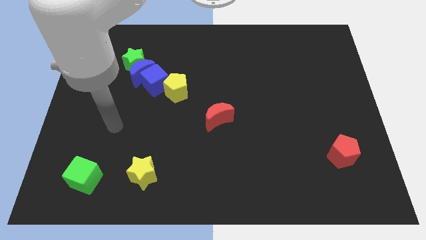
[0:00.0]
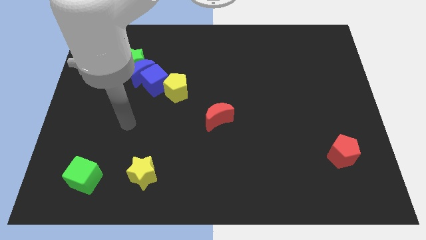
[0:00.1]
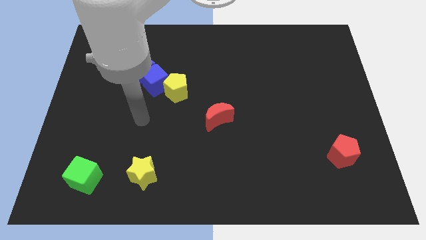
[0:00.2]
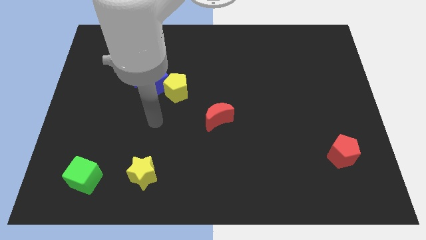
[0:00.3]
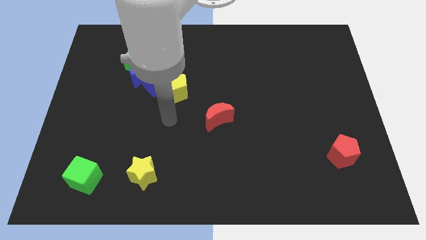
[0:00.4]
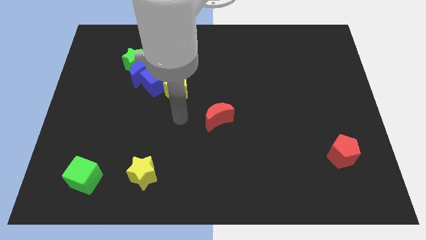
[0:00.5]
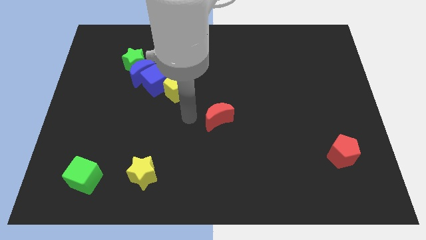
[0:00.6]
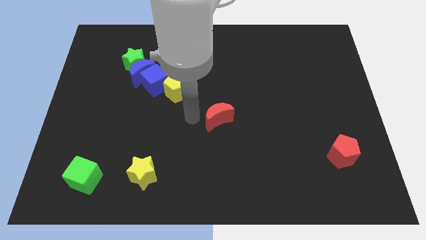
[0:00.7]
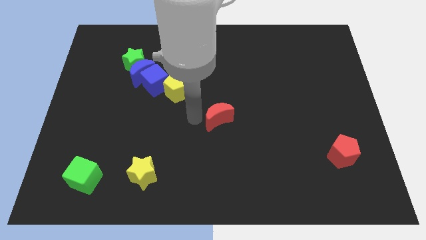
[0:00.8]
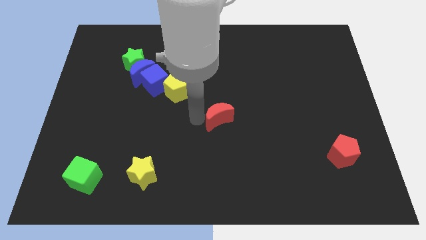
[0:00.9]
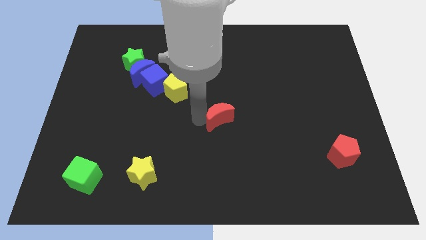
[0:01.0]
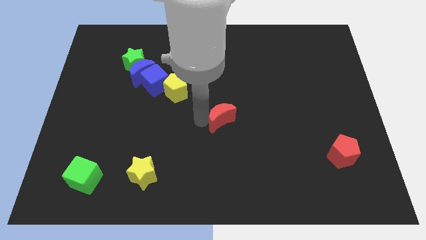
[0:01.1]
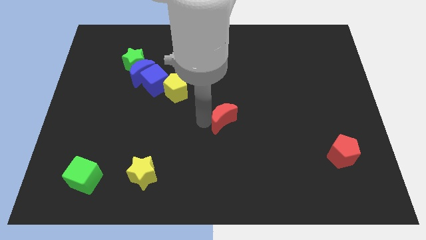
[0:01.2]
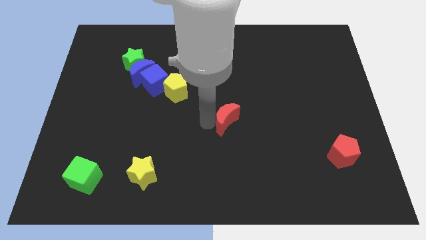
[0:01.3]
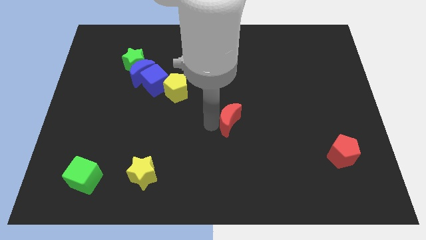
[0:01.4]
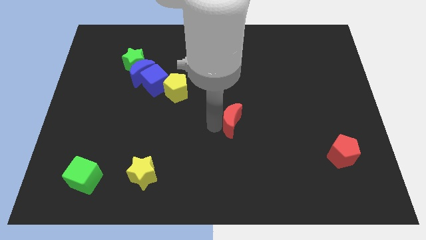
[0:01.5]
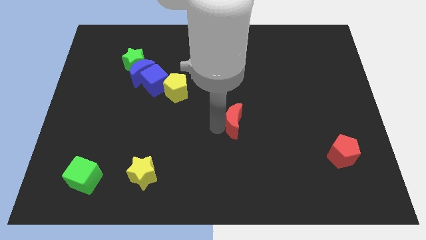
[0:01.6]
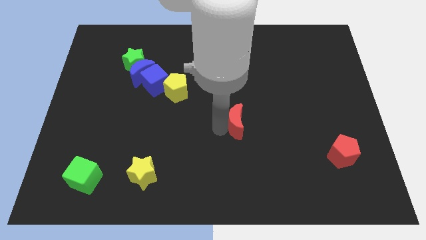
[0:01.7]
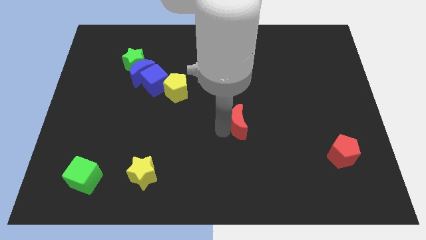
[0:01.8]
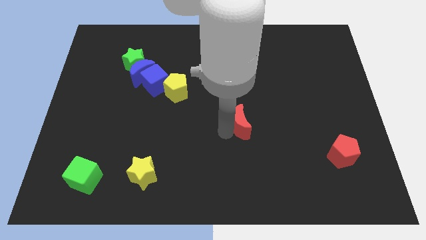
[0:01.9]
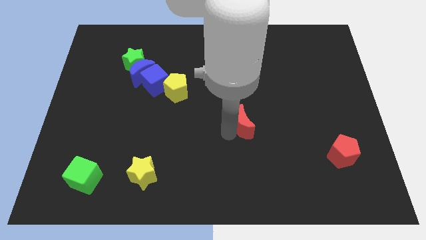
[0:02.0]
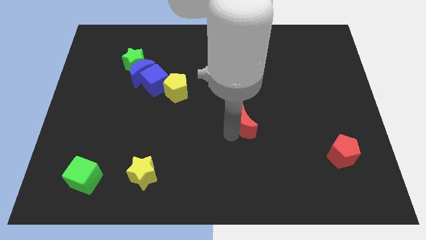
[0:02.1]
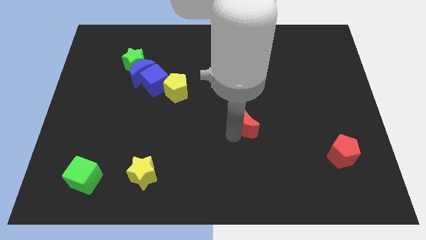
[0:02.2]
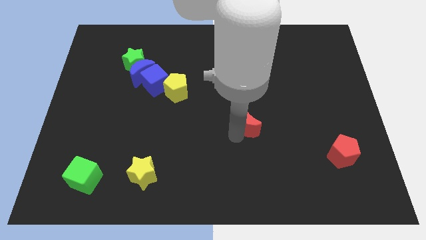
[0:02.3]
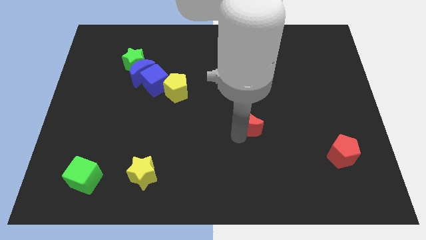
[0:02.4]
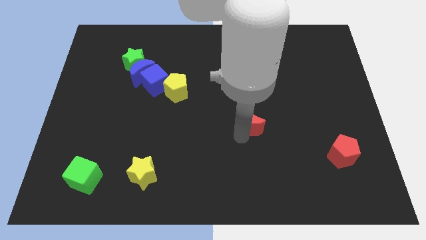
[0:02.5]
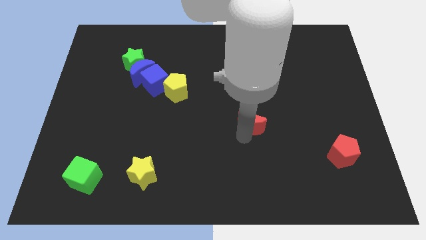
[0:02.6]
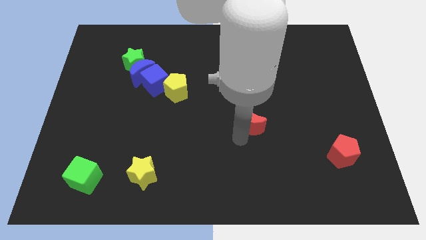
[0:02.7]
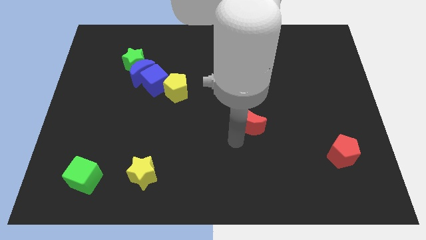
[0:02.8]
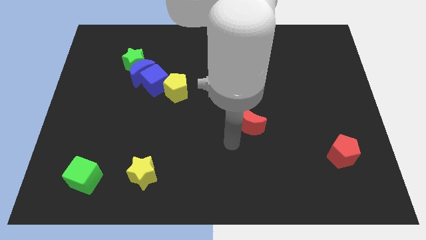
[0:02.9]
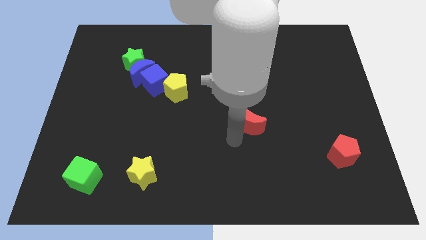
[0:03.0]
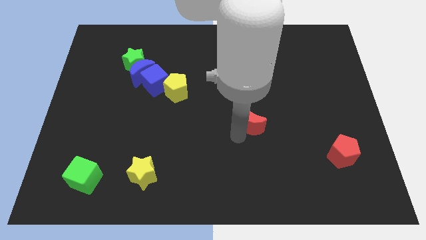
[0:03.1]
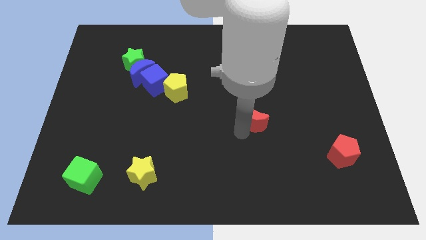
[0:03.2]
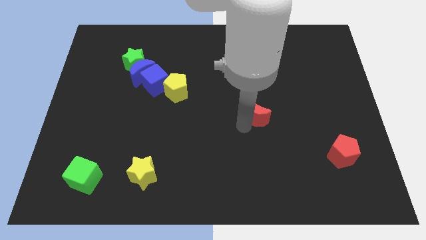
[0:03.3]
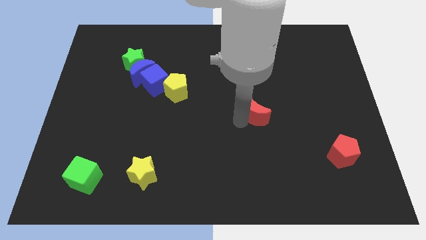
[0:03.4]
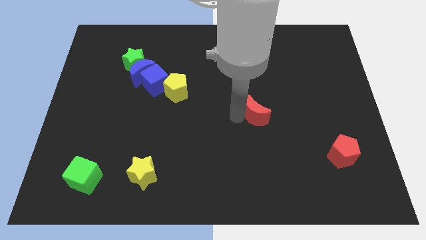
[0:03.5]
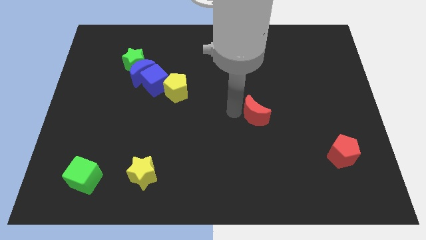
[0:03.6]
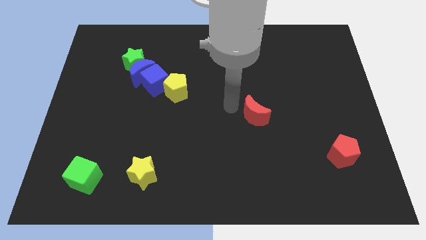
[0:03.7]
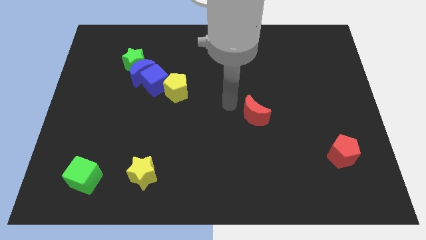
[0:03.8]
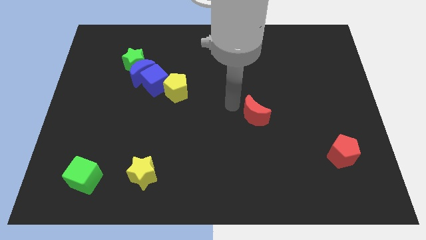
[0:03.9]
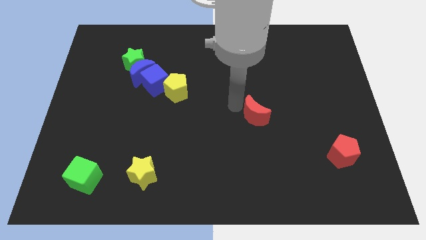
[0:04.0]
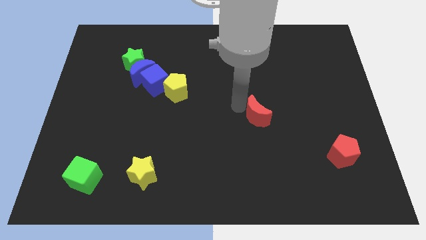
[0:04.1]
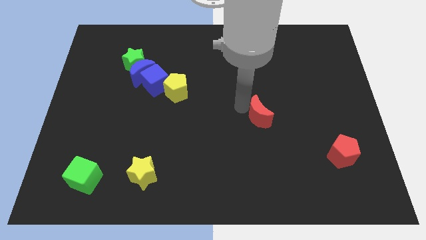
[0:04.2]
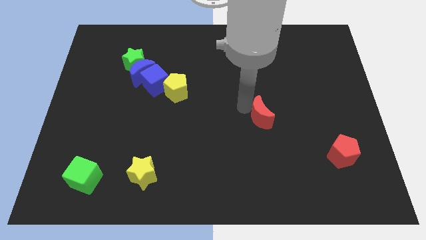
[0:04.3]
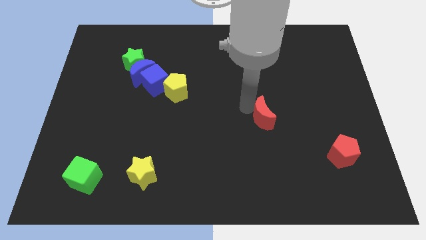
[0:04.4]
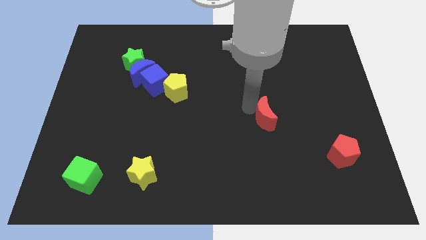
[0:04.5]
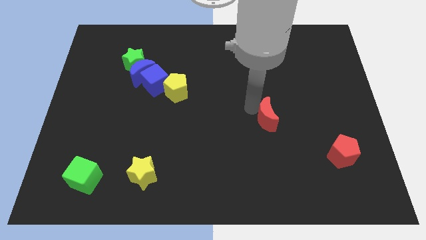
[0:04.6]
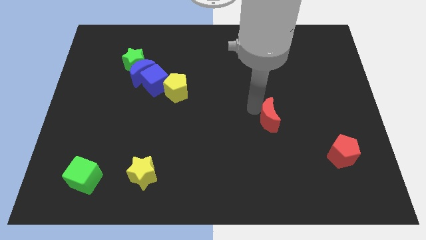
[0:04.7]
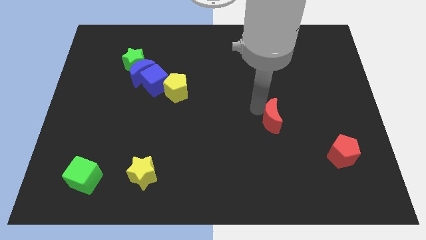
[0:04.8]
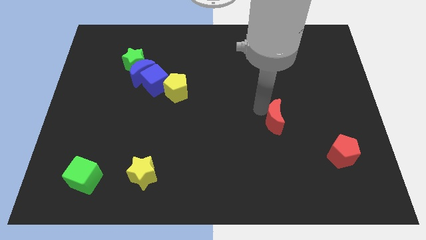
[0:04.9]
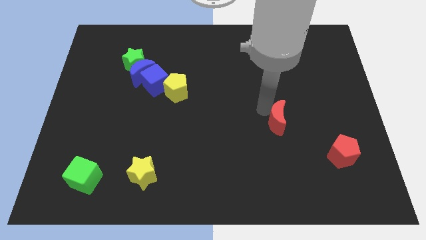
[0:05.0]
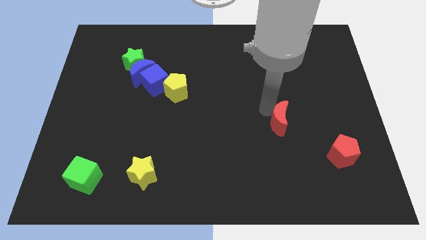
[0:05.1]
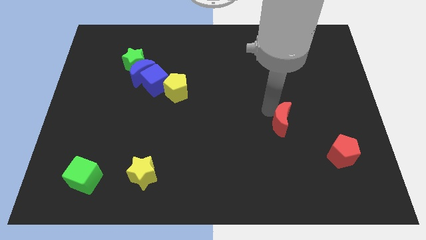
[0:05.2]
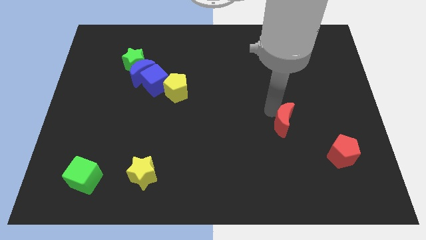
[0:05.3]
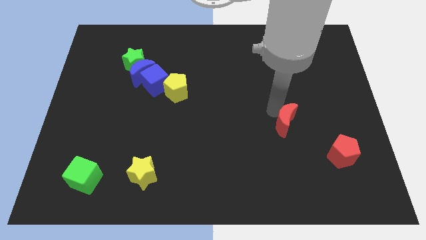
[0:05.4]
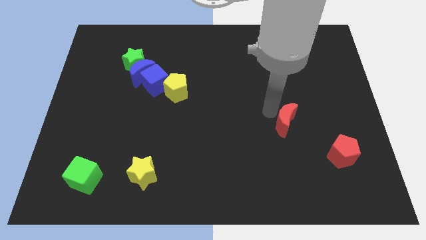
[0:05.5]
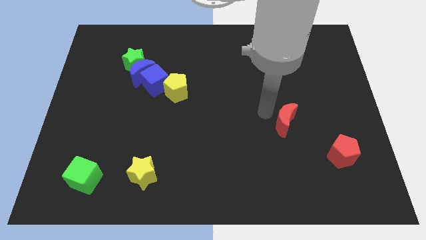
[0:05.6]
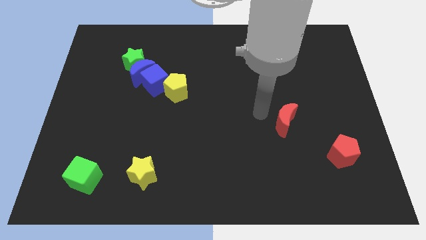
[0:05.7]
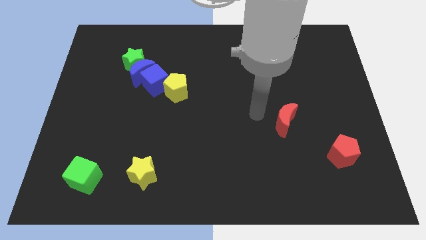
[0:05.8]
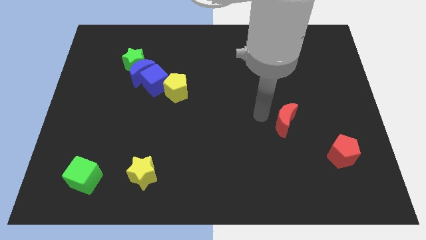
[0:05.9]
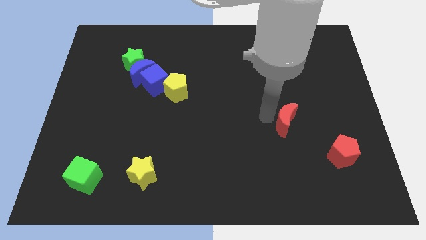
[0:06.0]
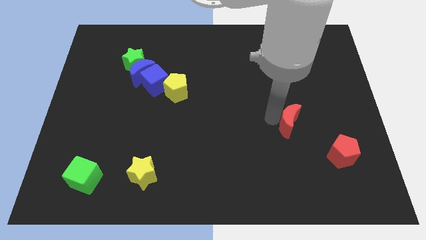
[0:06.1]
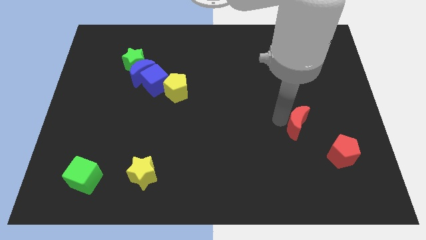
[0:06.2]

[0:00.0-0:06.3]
slide the red moon to the top left of the red pentagon

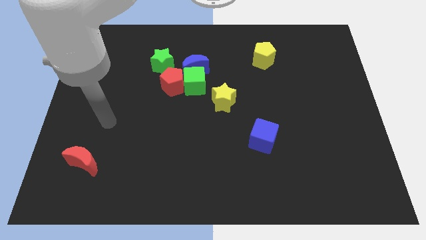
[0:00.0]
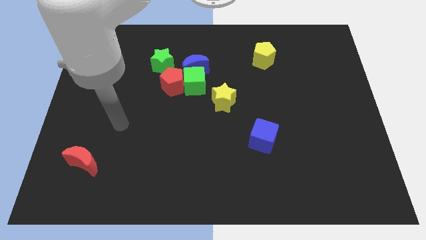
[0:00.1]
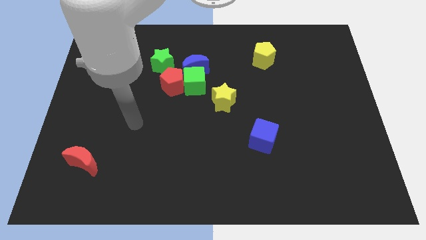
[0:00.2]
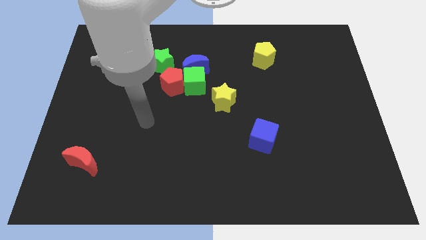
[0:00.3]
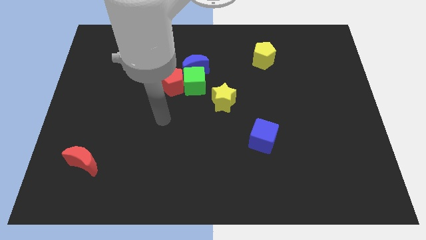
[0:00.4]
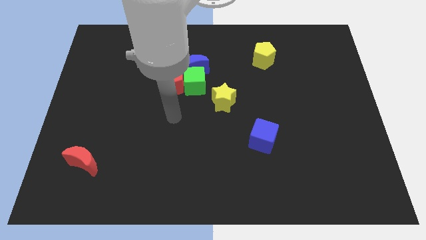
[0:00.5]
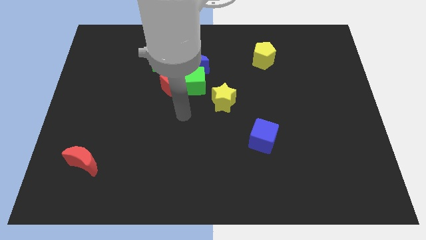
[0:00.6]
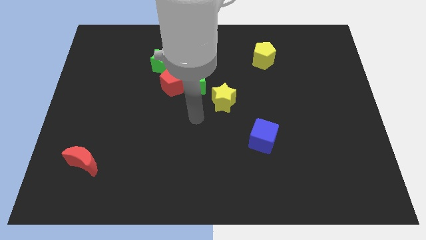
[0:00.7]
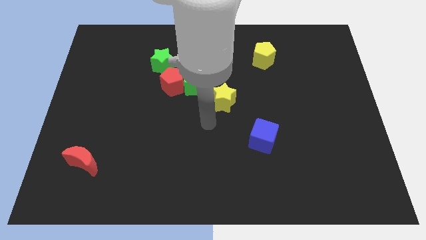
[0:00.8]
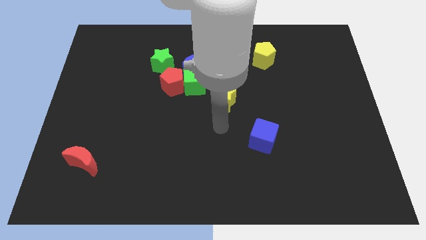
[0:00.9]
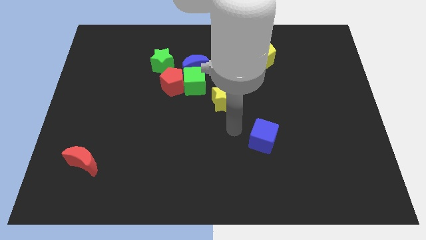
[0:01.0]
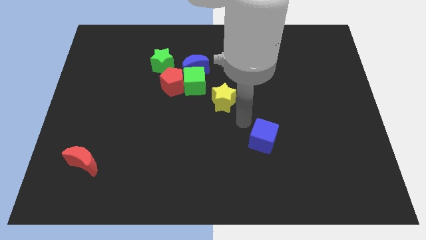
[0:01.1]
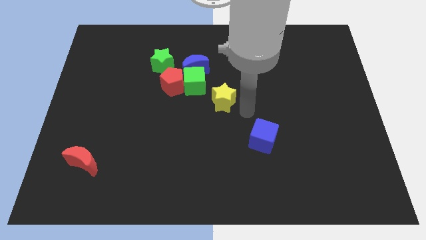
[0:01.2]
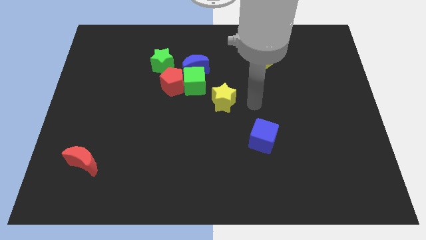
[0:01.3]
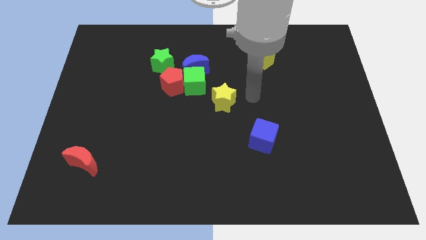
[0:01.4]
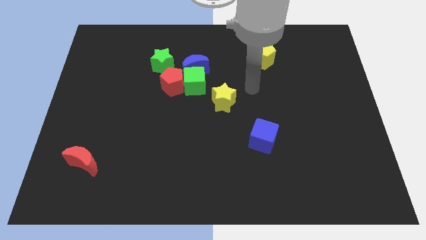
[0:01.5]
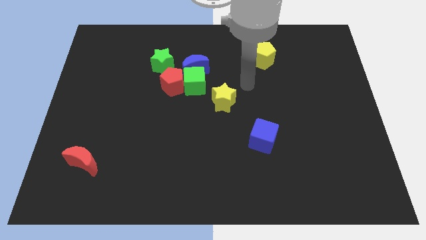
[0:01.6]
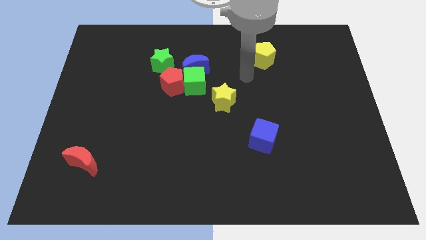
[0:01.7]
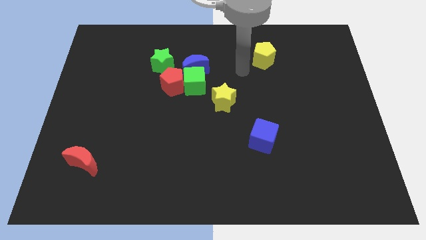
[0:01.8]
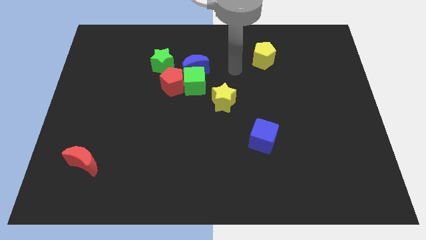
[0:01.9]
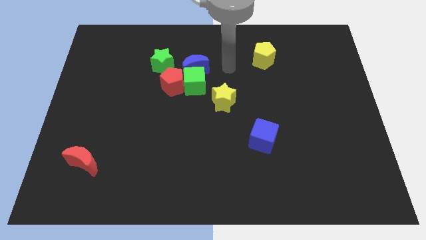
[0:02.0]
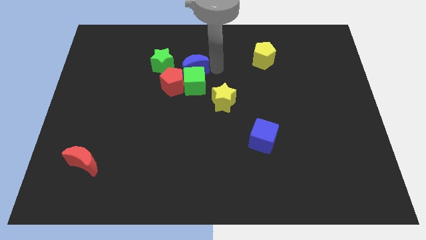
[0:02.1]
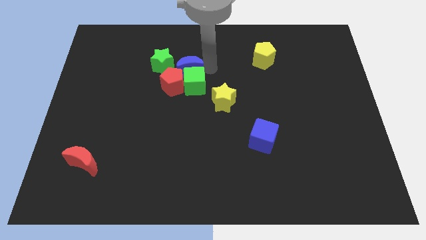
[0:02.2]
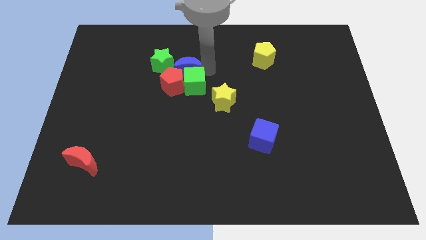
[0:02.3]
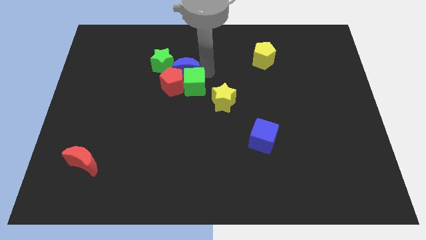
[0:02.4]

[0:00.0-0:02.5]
move the green cube just left of the yellow star
